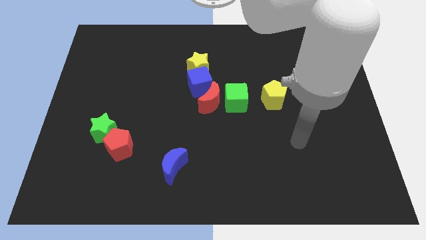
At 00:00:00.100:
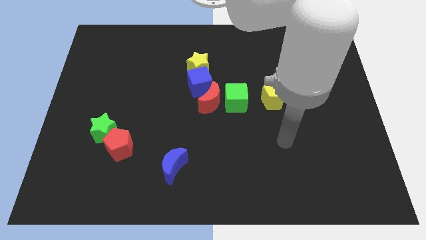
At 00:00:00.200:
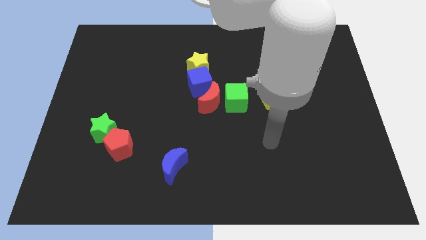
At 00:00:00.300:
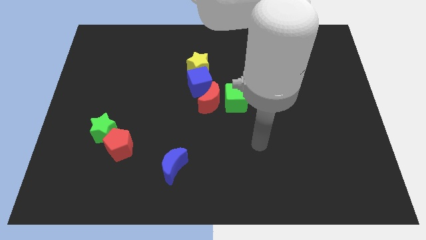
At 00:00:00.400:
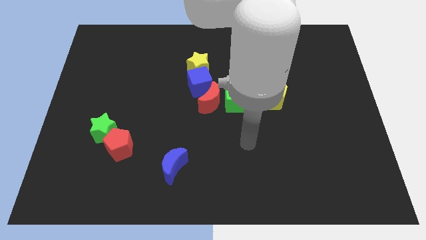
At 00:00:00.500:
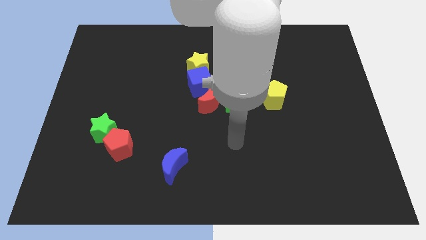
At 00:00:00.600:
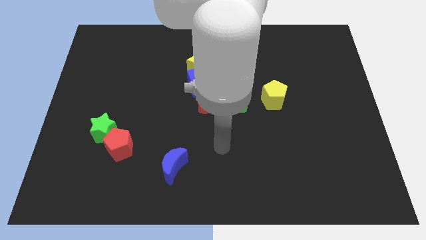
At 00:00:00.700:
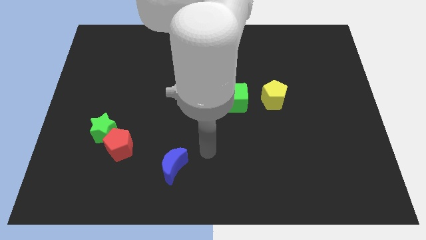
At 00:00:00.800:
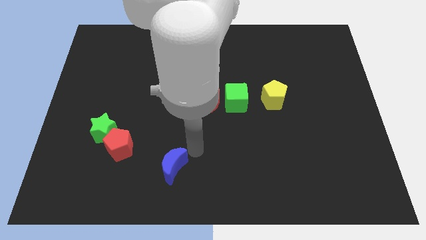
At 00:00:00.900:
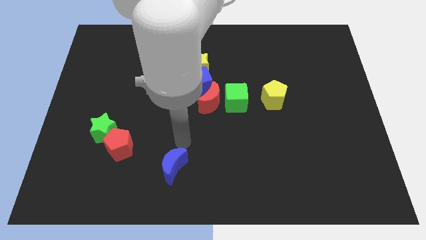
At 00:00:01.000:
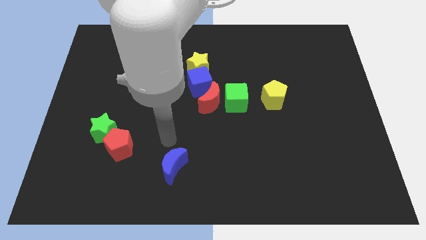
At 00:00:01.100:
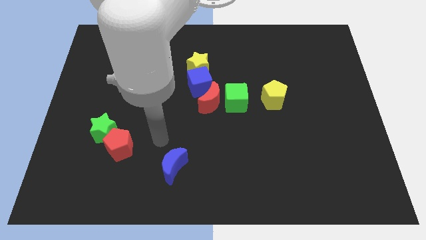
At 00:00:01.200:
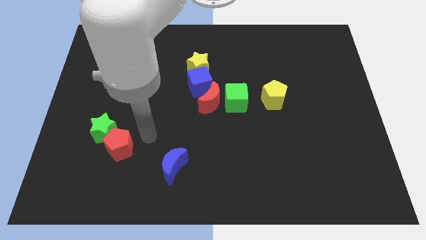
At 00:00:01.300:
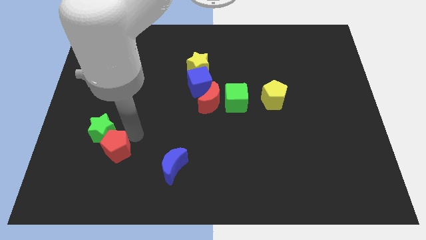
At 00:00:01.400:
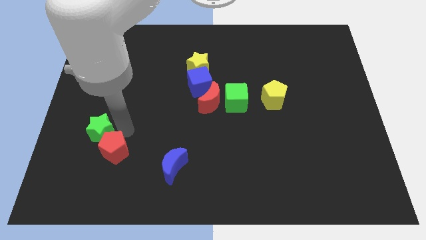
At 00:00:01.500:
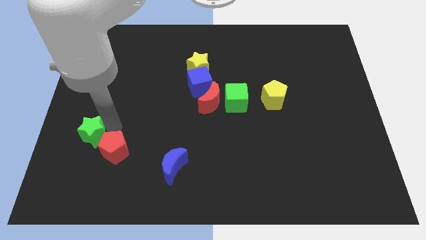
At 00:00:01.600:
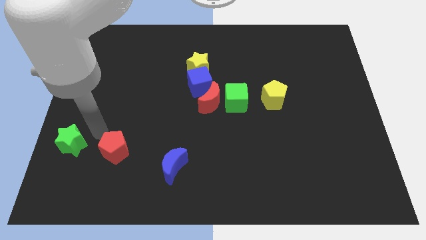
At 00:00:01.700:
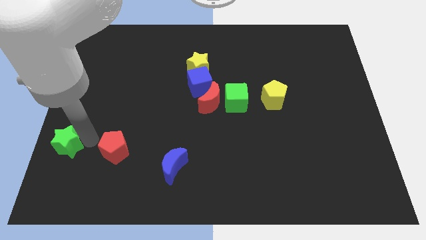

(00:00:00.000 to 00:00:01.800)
separate the red pentagon from the green star

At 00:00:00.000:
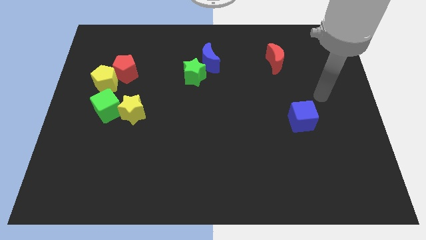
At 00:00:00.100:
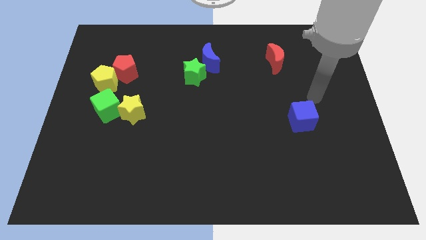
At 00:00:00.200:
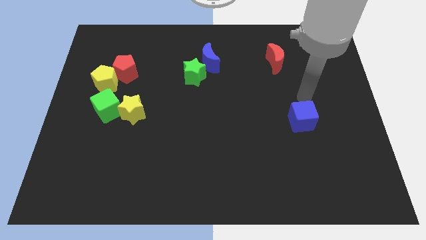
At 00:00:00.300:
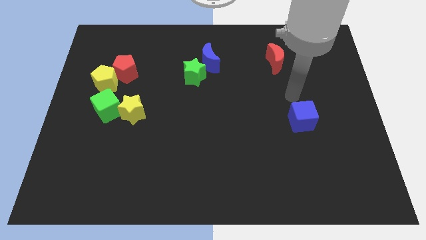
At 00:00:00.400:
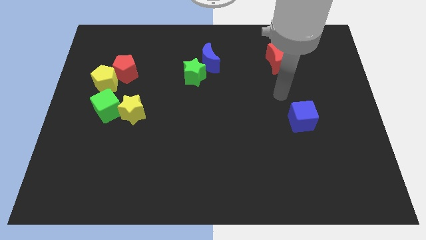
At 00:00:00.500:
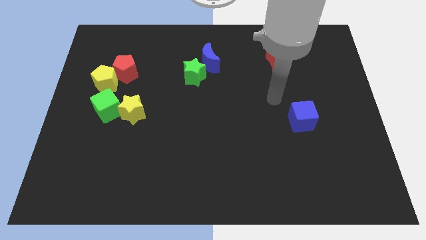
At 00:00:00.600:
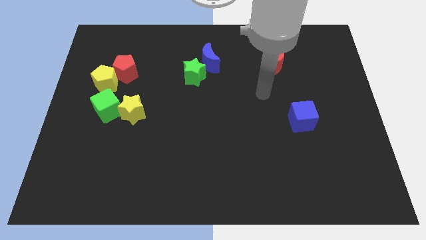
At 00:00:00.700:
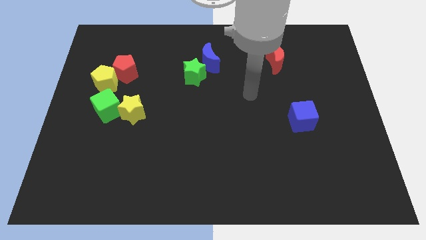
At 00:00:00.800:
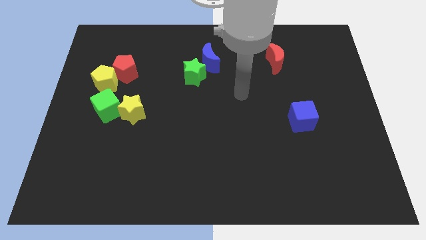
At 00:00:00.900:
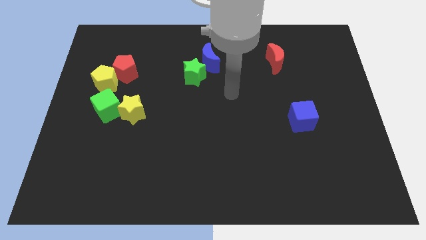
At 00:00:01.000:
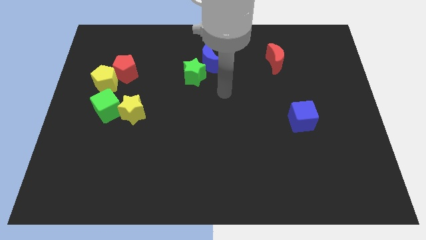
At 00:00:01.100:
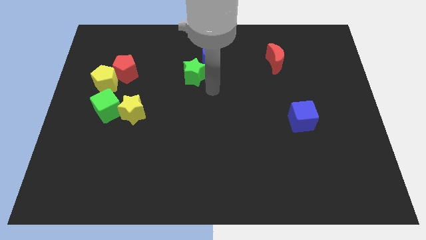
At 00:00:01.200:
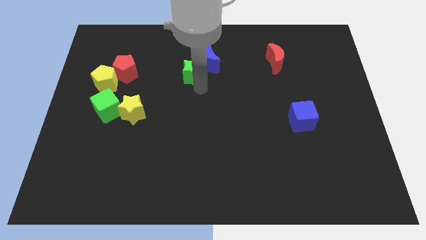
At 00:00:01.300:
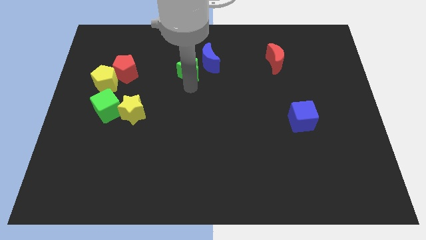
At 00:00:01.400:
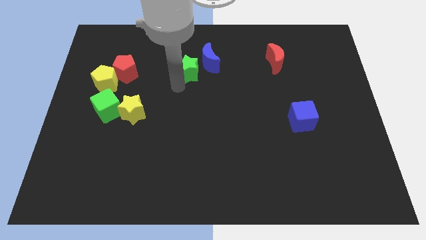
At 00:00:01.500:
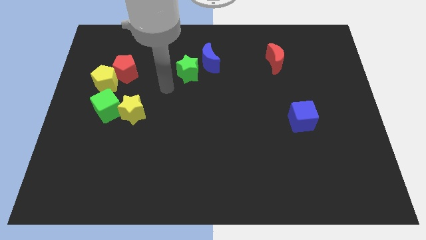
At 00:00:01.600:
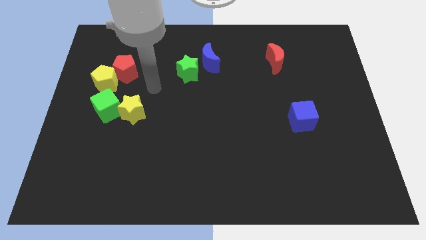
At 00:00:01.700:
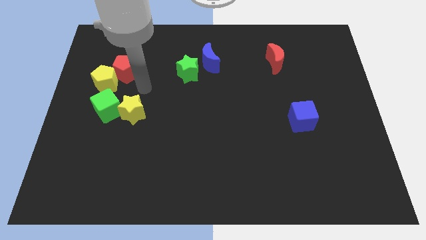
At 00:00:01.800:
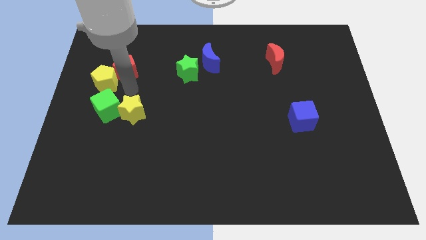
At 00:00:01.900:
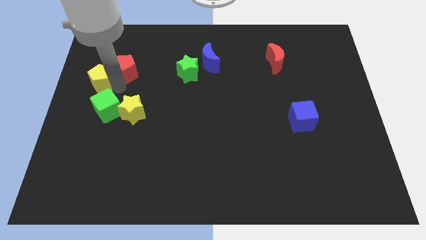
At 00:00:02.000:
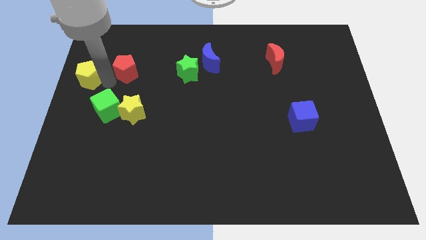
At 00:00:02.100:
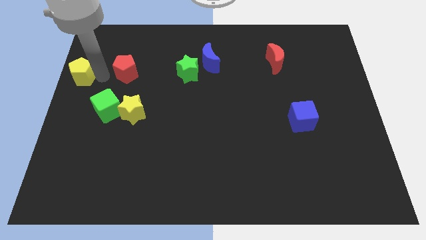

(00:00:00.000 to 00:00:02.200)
move the red pentagon away from the yellow pentagon

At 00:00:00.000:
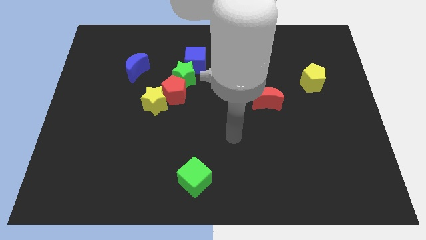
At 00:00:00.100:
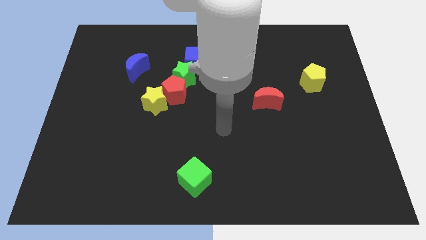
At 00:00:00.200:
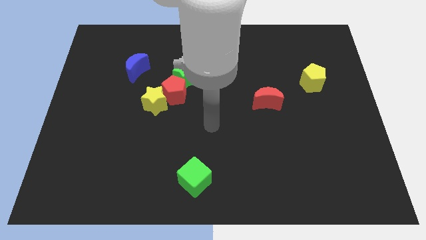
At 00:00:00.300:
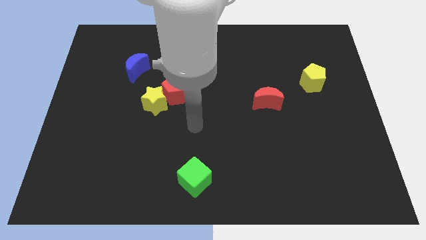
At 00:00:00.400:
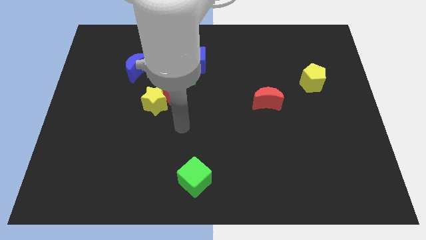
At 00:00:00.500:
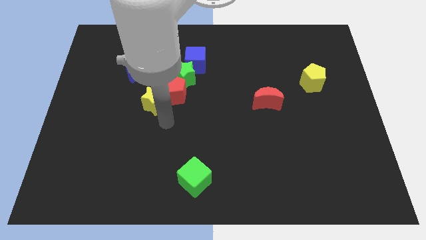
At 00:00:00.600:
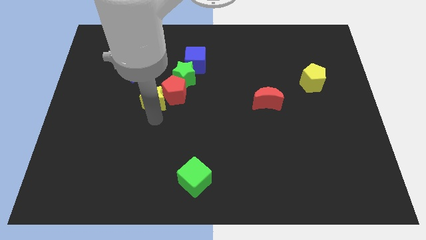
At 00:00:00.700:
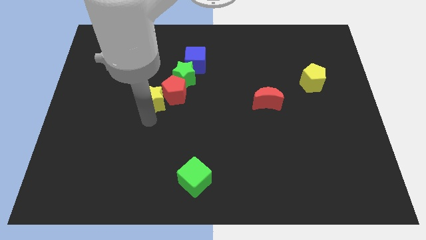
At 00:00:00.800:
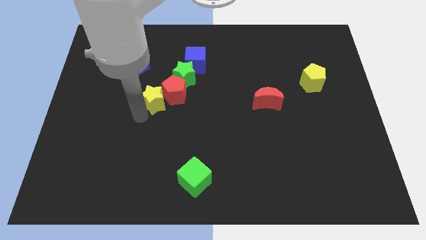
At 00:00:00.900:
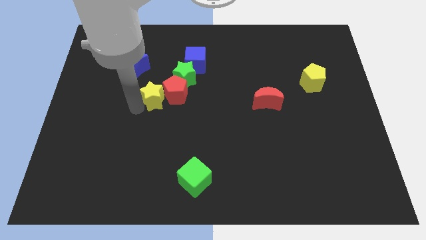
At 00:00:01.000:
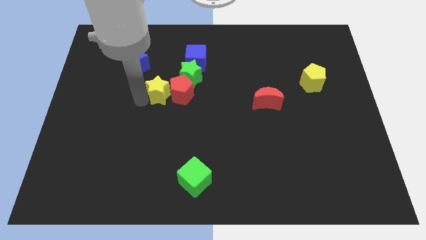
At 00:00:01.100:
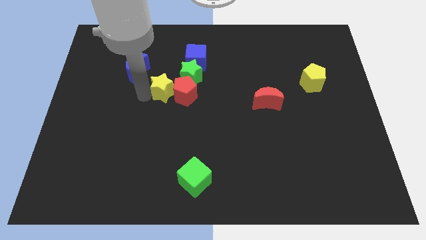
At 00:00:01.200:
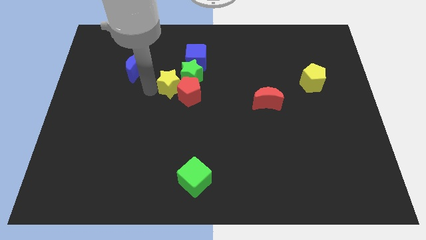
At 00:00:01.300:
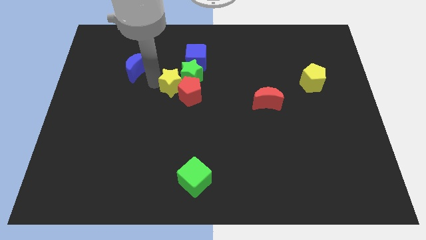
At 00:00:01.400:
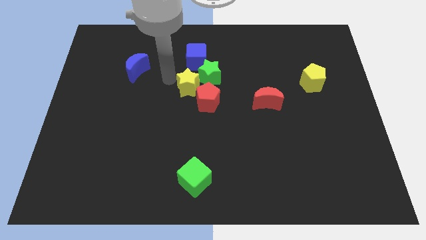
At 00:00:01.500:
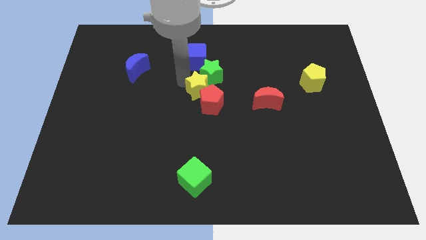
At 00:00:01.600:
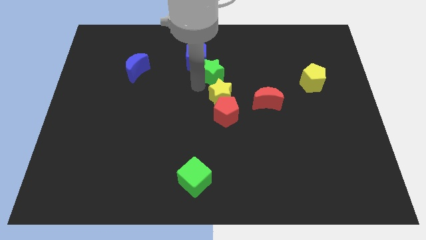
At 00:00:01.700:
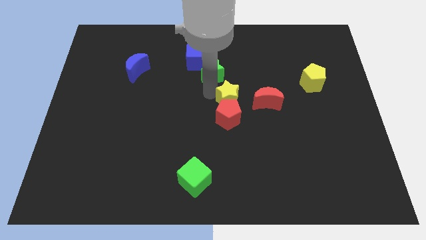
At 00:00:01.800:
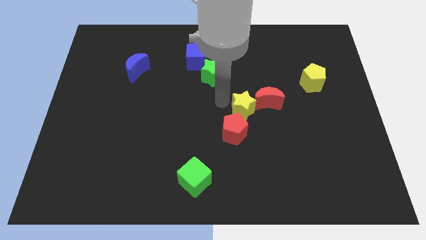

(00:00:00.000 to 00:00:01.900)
separate the red pentagon from the green star and yellow star

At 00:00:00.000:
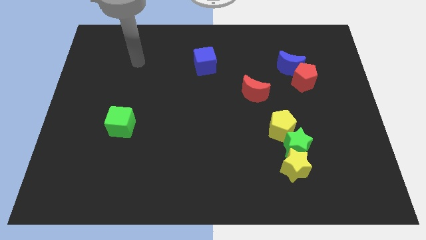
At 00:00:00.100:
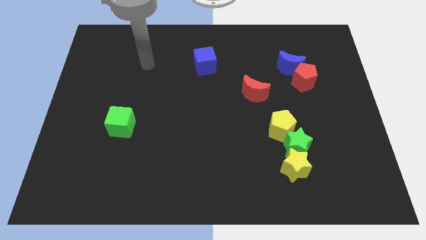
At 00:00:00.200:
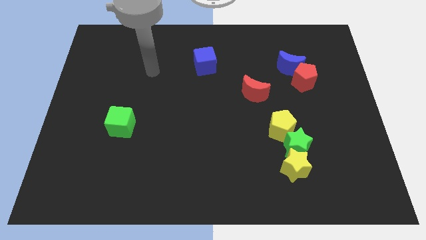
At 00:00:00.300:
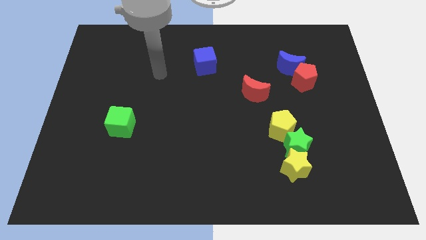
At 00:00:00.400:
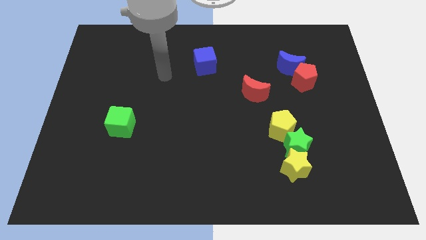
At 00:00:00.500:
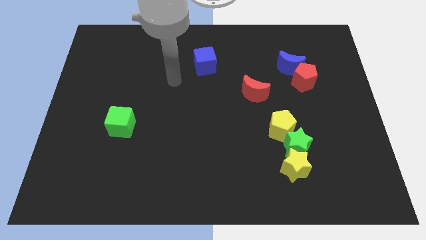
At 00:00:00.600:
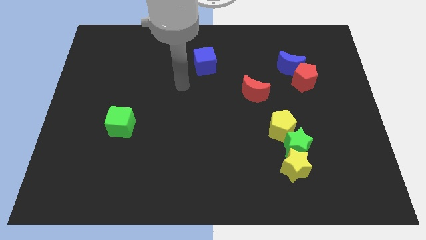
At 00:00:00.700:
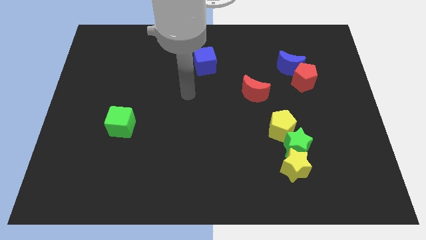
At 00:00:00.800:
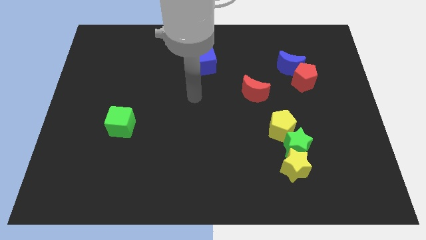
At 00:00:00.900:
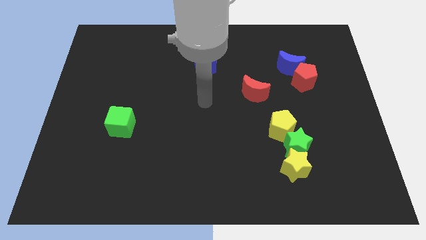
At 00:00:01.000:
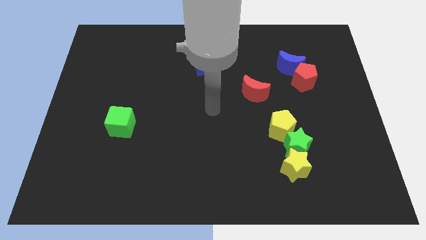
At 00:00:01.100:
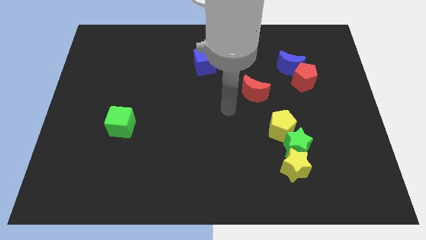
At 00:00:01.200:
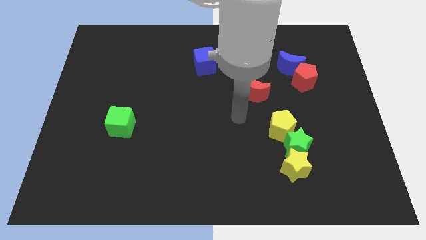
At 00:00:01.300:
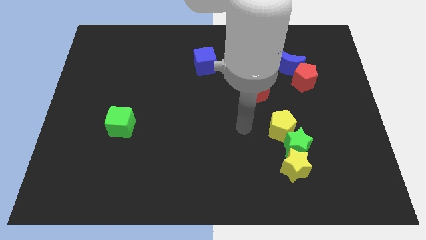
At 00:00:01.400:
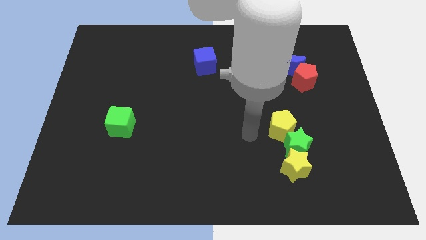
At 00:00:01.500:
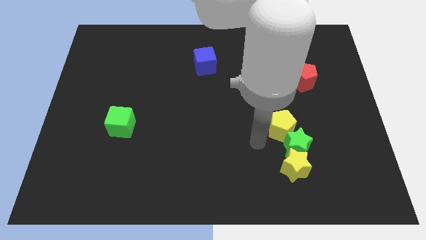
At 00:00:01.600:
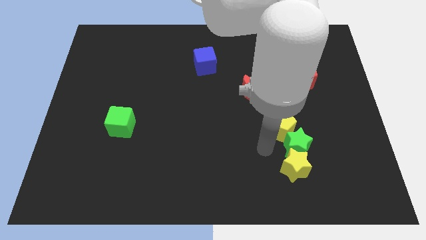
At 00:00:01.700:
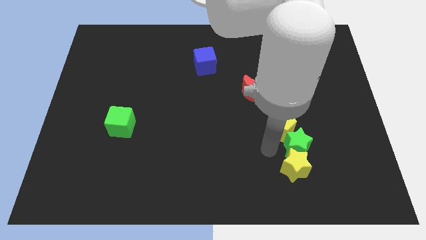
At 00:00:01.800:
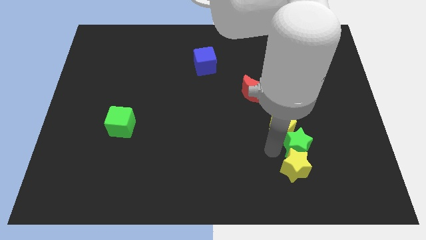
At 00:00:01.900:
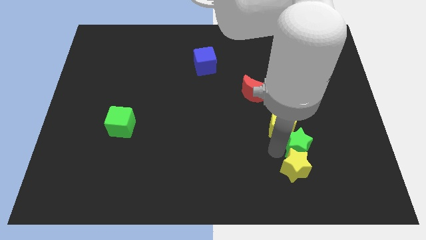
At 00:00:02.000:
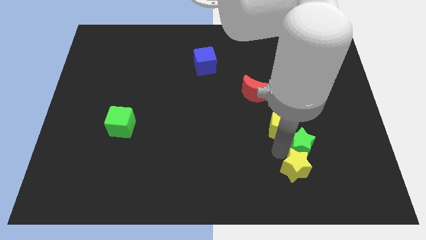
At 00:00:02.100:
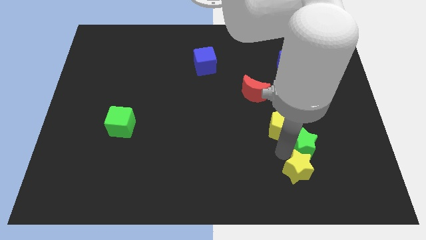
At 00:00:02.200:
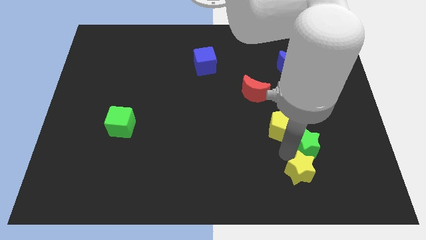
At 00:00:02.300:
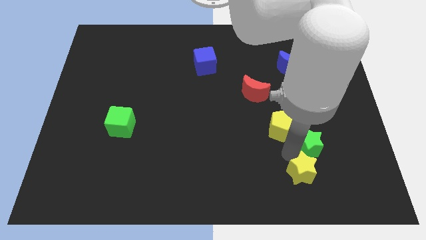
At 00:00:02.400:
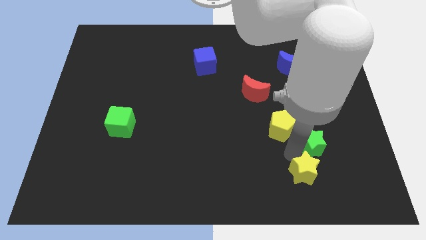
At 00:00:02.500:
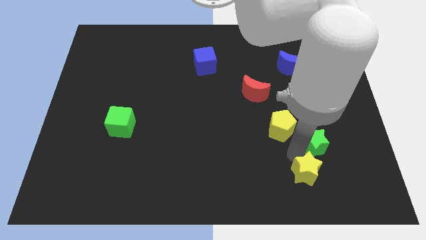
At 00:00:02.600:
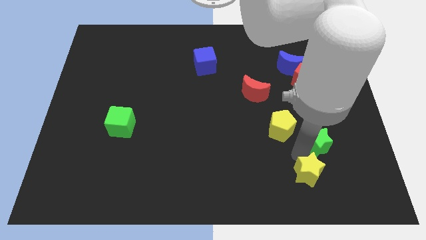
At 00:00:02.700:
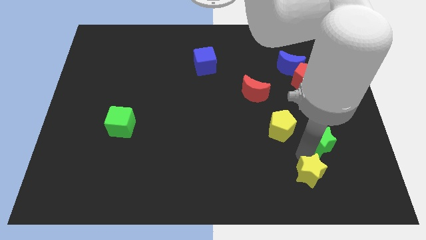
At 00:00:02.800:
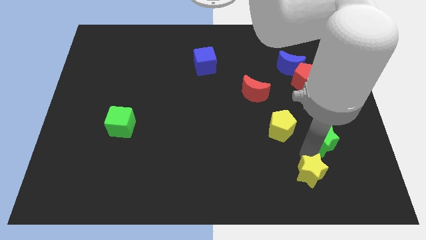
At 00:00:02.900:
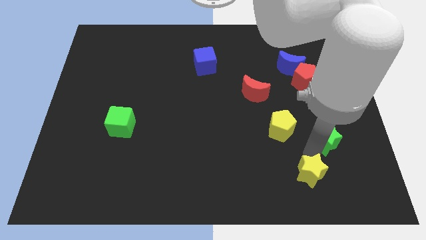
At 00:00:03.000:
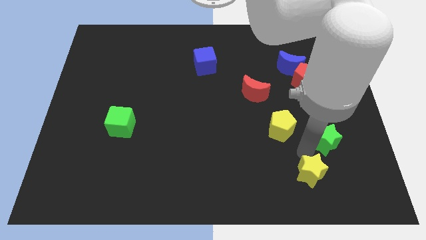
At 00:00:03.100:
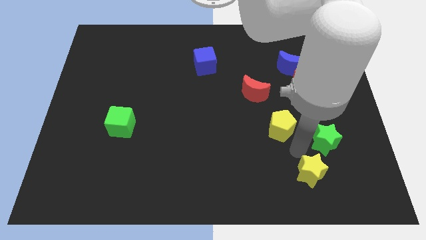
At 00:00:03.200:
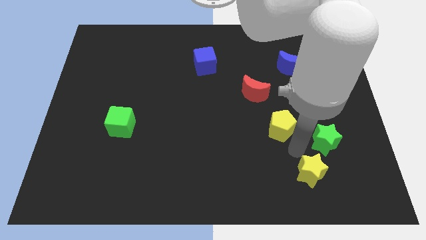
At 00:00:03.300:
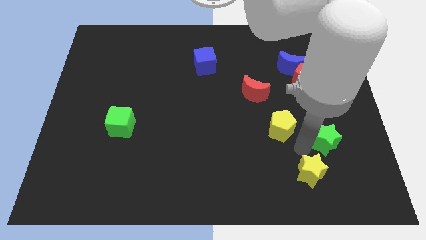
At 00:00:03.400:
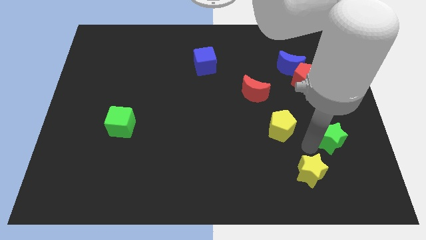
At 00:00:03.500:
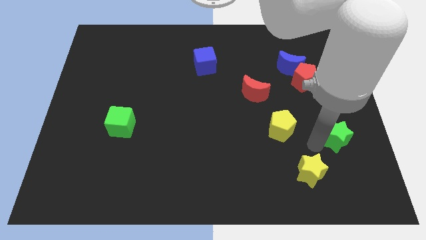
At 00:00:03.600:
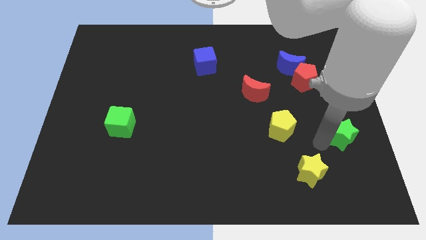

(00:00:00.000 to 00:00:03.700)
separate the green star from the yellow star and yellow pentagon
